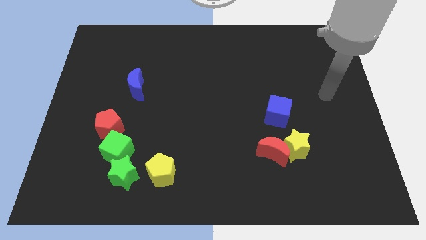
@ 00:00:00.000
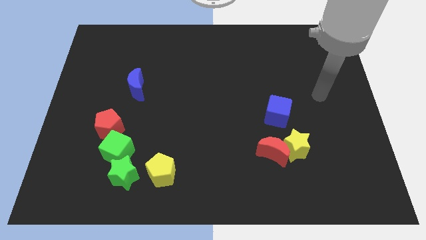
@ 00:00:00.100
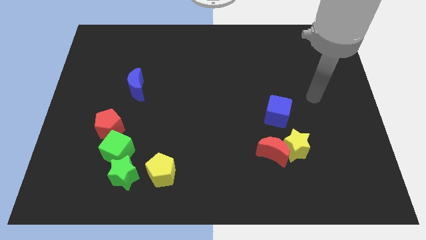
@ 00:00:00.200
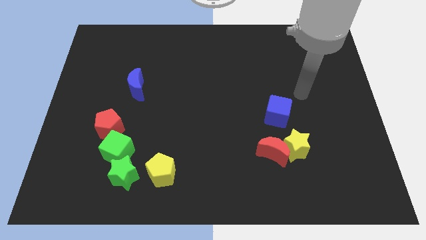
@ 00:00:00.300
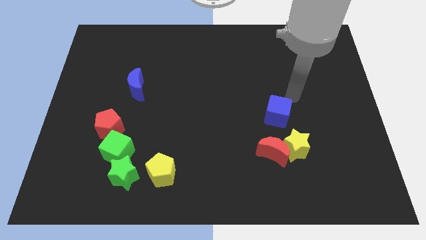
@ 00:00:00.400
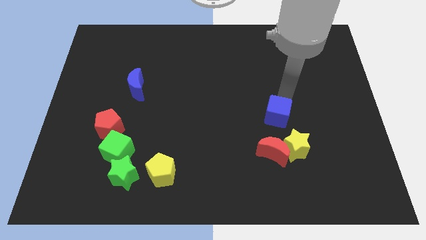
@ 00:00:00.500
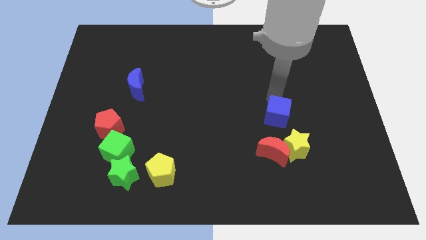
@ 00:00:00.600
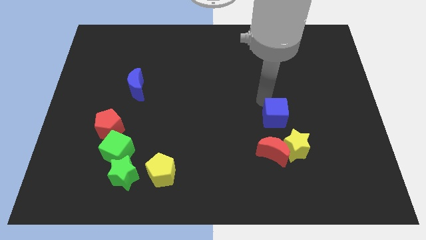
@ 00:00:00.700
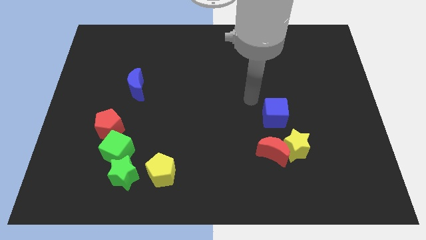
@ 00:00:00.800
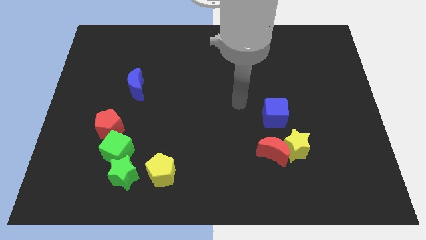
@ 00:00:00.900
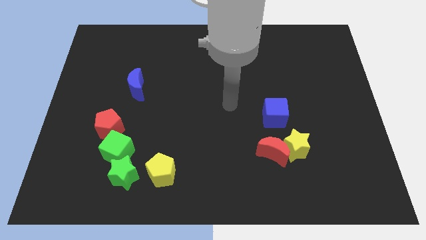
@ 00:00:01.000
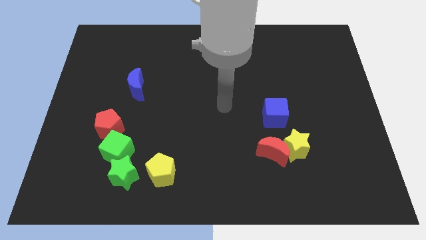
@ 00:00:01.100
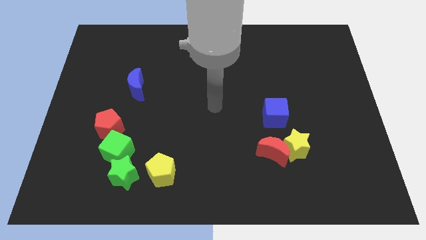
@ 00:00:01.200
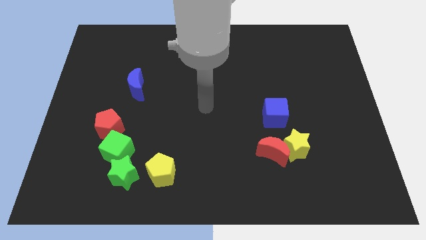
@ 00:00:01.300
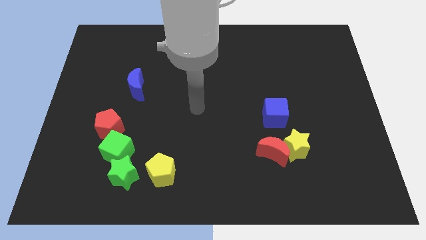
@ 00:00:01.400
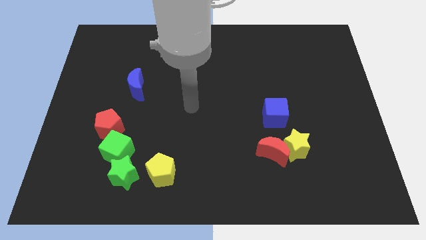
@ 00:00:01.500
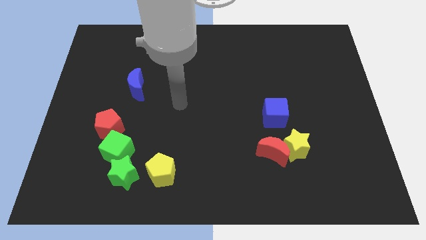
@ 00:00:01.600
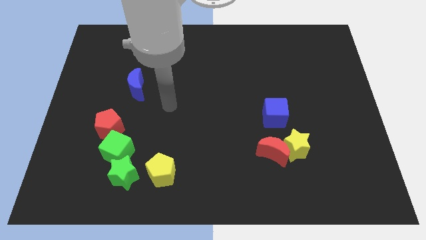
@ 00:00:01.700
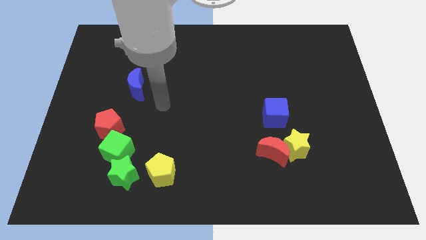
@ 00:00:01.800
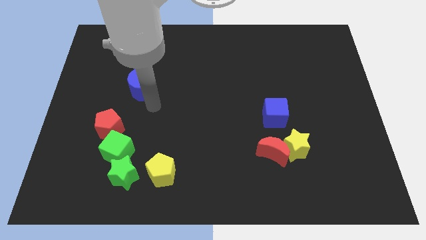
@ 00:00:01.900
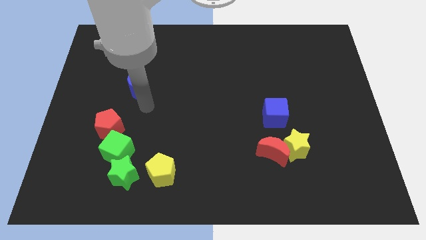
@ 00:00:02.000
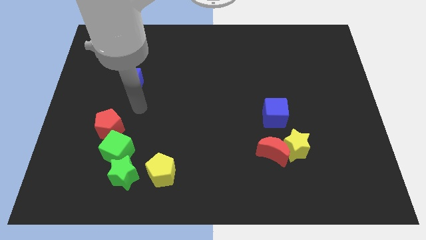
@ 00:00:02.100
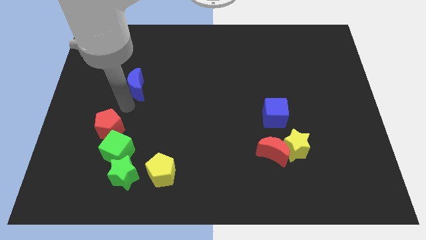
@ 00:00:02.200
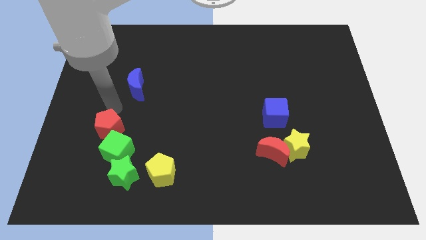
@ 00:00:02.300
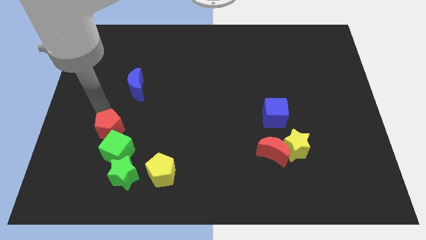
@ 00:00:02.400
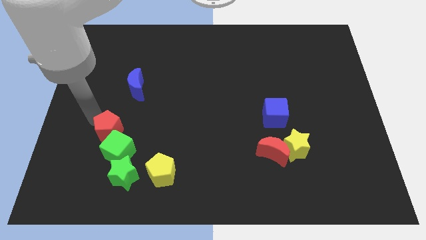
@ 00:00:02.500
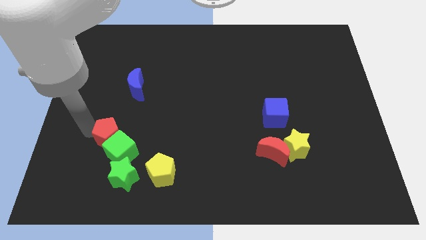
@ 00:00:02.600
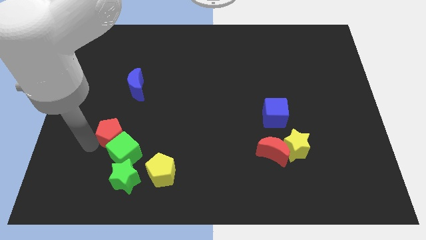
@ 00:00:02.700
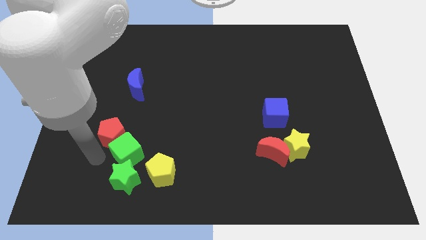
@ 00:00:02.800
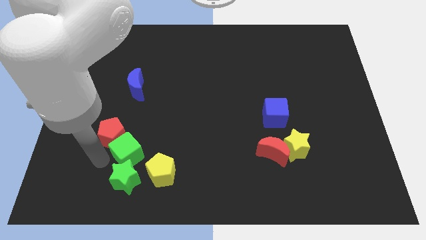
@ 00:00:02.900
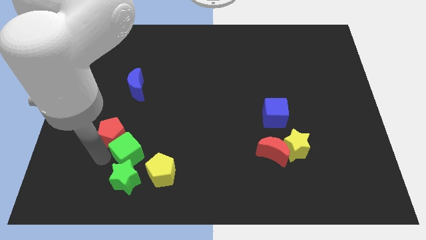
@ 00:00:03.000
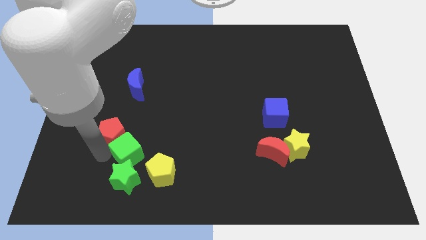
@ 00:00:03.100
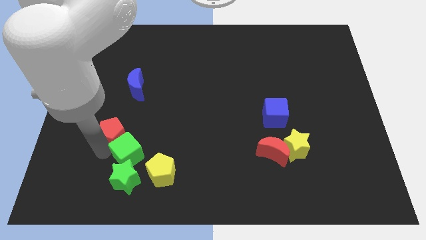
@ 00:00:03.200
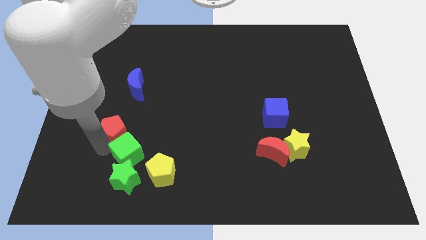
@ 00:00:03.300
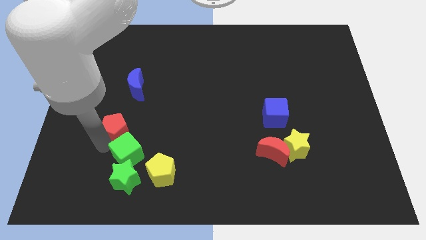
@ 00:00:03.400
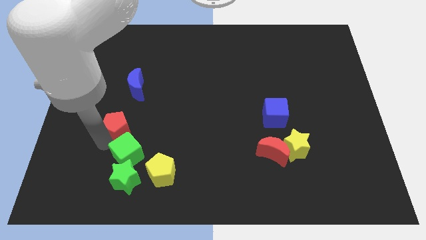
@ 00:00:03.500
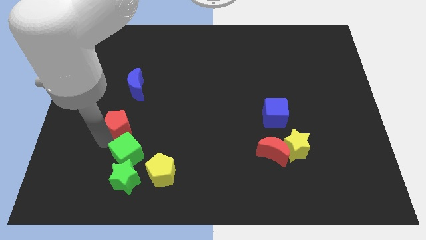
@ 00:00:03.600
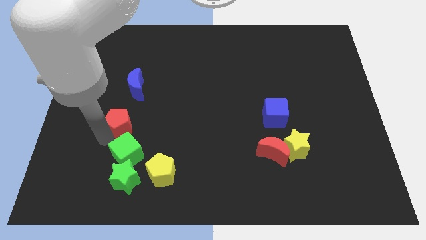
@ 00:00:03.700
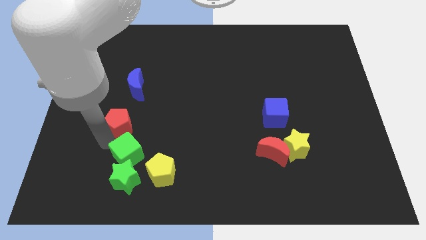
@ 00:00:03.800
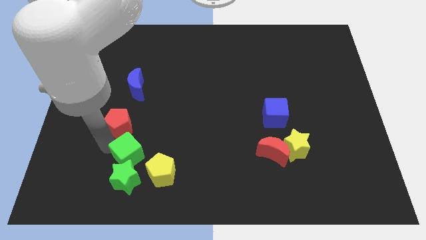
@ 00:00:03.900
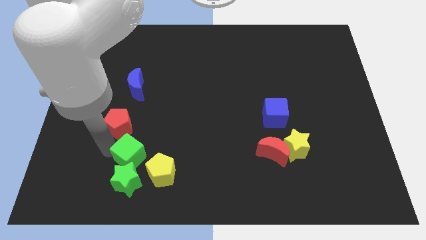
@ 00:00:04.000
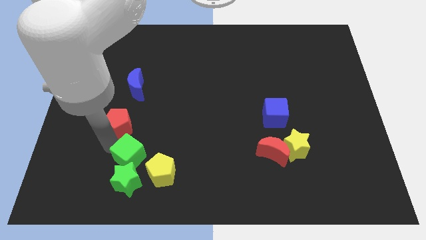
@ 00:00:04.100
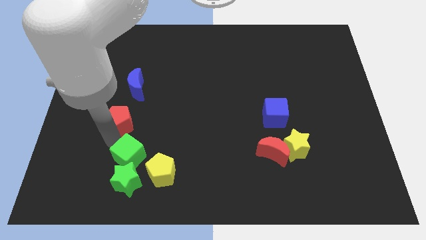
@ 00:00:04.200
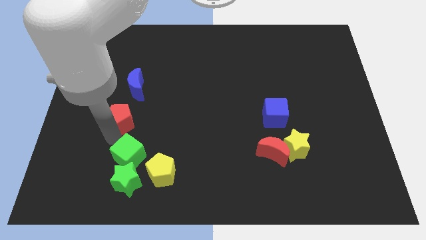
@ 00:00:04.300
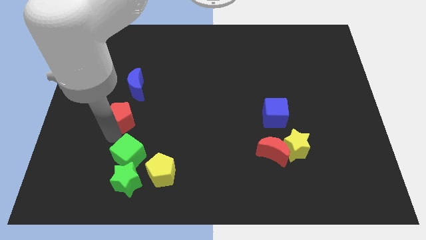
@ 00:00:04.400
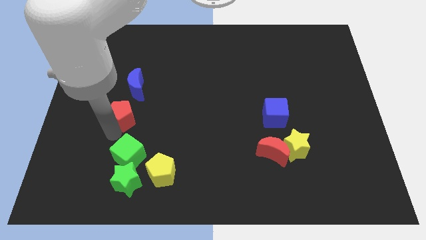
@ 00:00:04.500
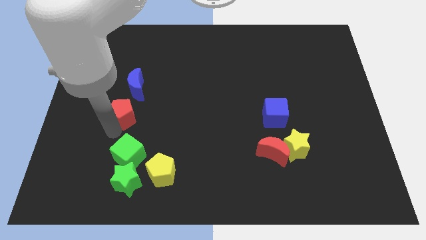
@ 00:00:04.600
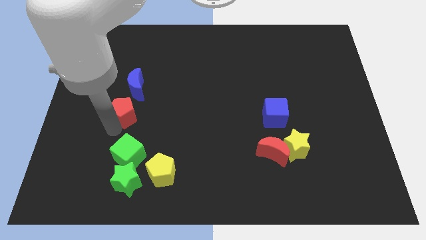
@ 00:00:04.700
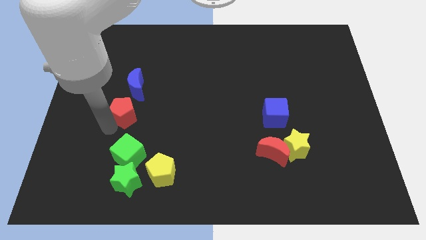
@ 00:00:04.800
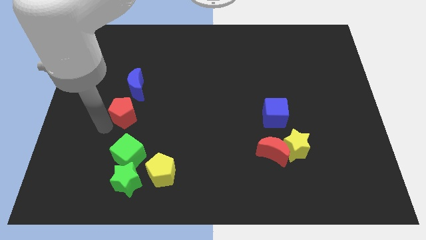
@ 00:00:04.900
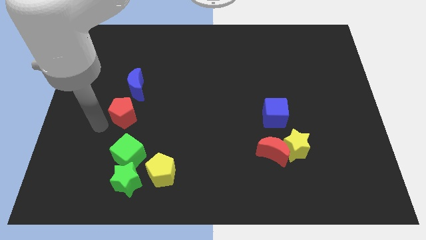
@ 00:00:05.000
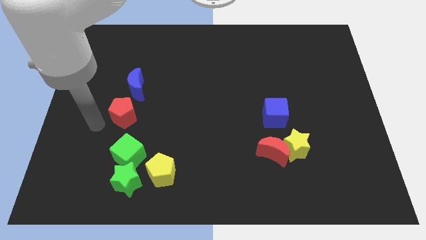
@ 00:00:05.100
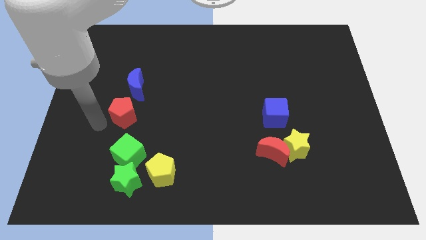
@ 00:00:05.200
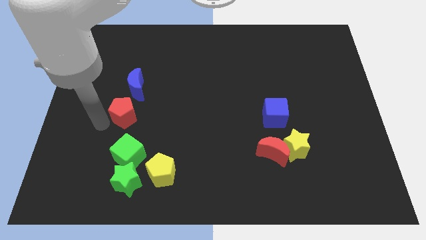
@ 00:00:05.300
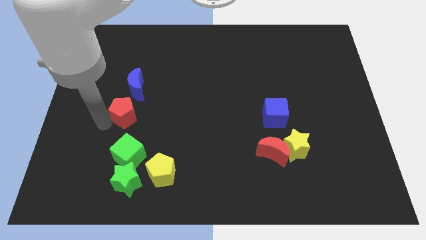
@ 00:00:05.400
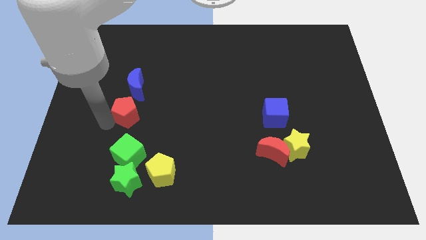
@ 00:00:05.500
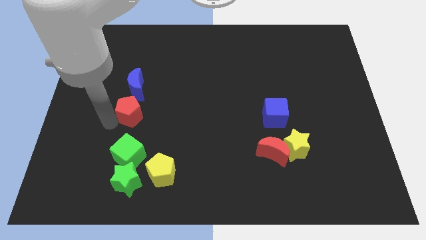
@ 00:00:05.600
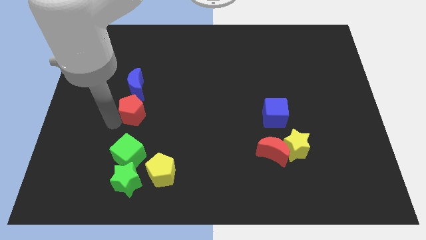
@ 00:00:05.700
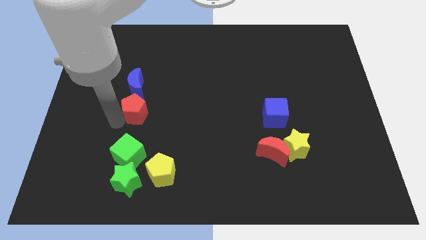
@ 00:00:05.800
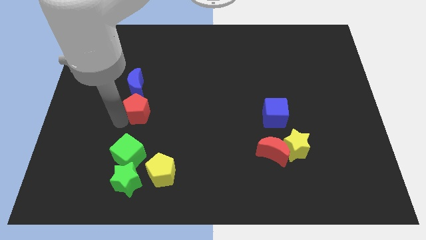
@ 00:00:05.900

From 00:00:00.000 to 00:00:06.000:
push the red pentagon diagonally upwards and to the right a little

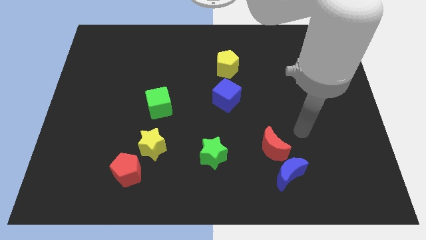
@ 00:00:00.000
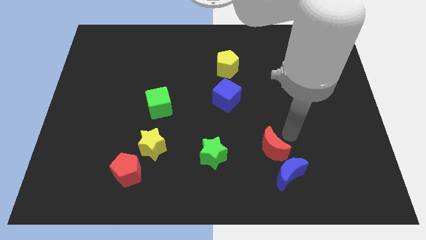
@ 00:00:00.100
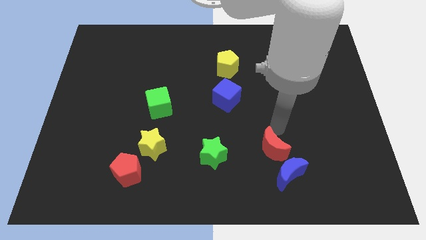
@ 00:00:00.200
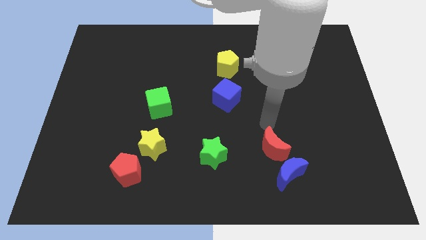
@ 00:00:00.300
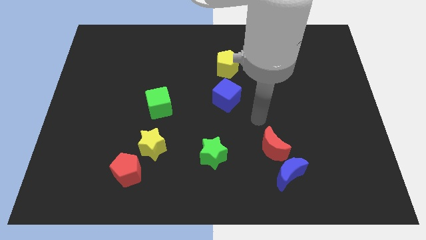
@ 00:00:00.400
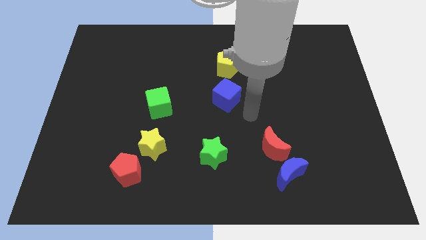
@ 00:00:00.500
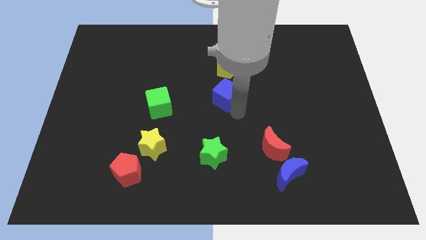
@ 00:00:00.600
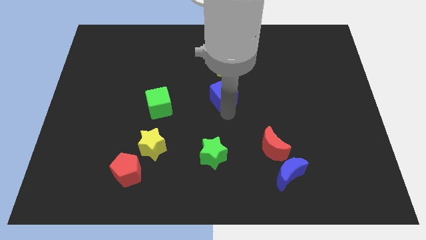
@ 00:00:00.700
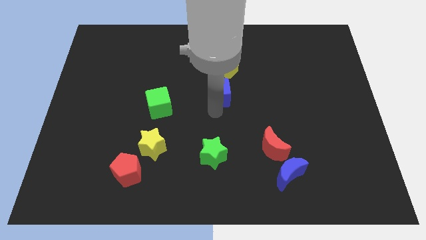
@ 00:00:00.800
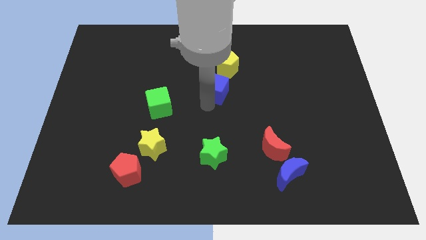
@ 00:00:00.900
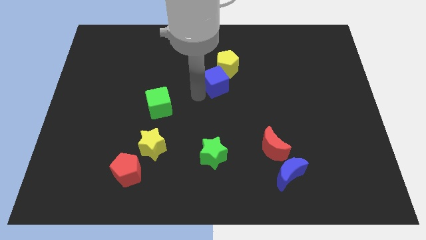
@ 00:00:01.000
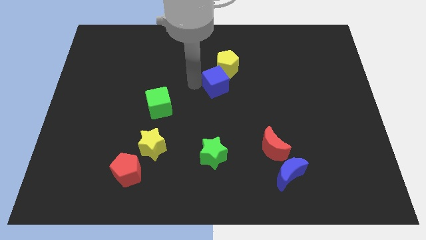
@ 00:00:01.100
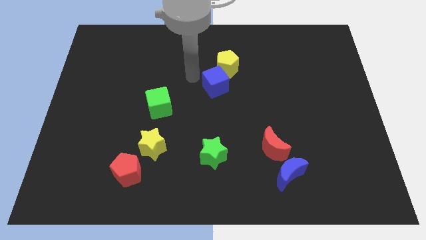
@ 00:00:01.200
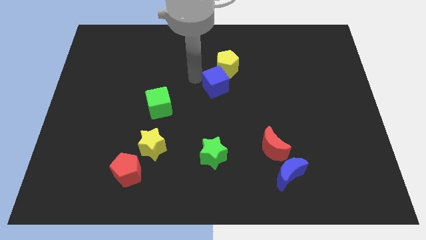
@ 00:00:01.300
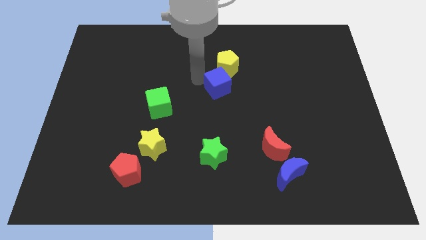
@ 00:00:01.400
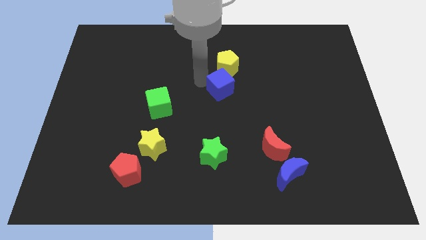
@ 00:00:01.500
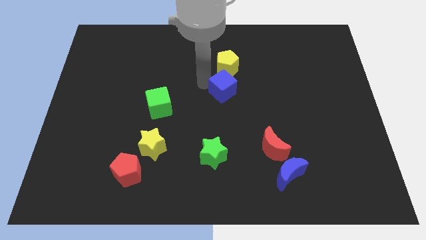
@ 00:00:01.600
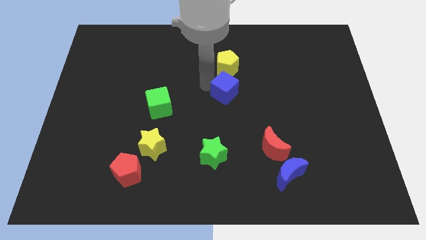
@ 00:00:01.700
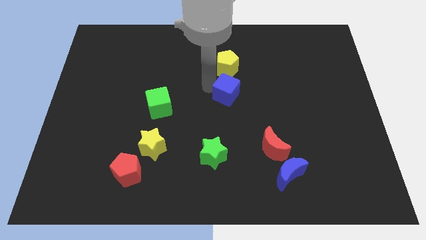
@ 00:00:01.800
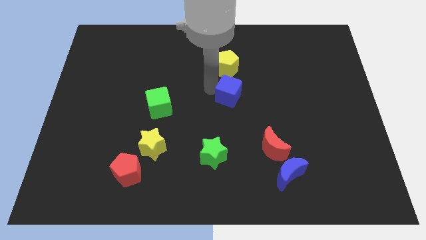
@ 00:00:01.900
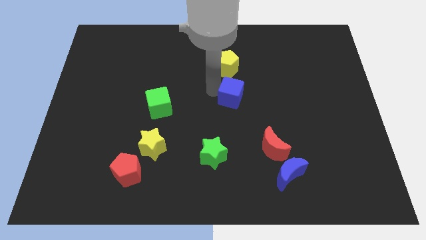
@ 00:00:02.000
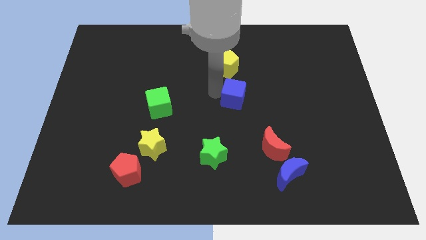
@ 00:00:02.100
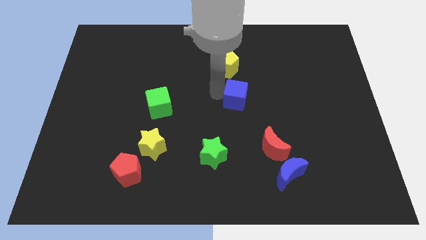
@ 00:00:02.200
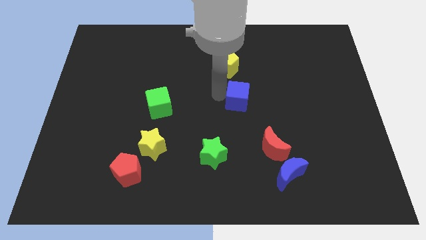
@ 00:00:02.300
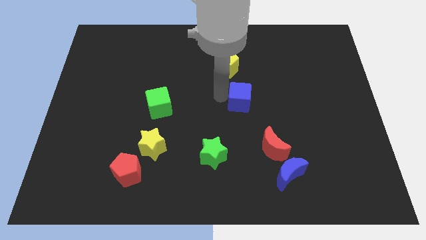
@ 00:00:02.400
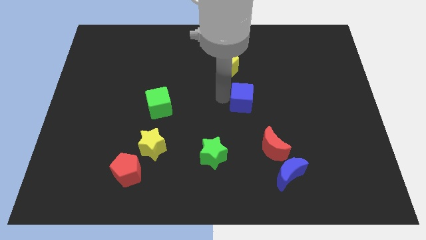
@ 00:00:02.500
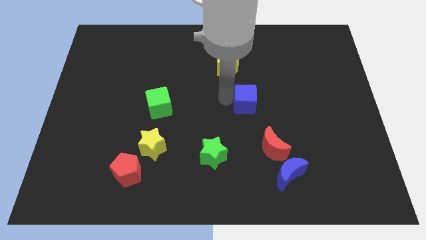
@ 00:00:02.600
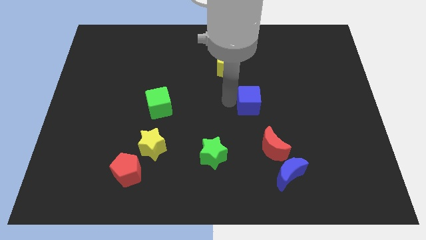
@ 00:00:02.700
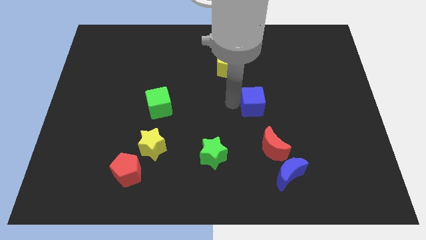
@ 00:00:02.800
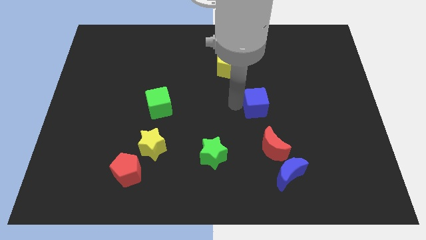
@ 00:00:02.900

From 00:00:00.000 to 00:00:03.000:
slightly push the blue cube right
